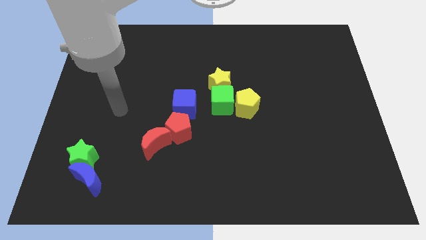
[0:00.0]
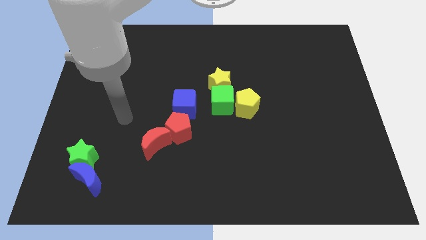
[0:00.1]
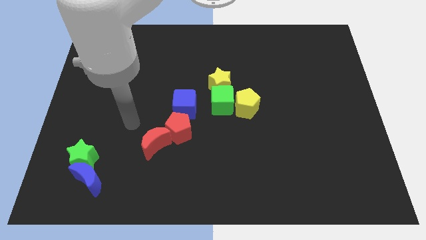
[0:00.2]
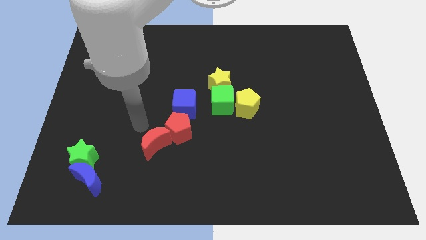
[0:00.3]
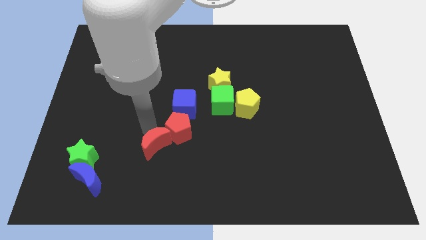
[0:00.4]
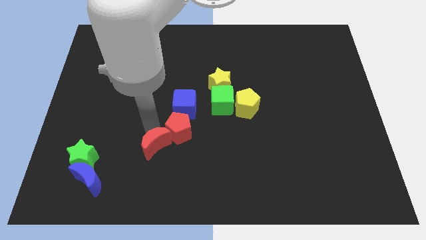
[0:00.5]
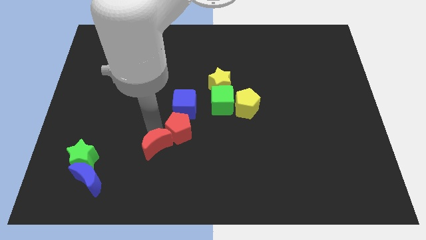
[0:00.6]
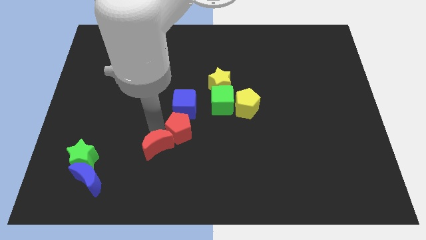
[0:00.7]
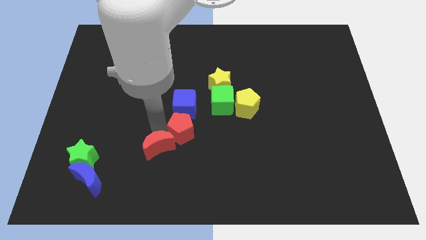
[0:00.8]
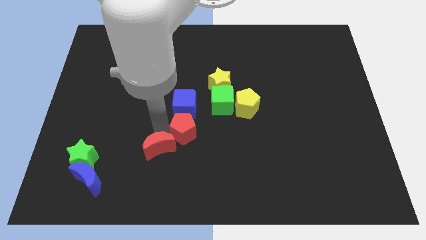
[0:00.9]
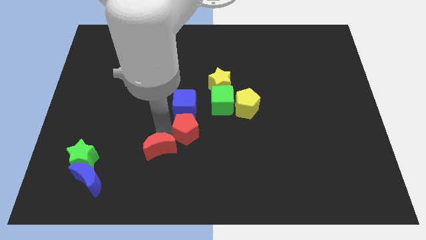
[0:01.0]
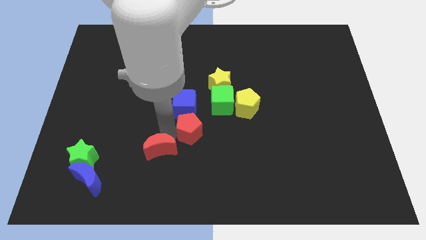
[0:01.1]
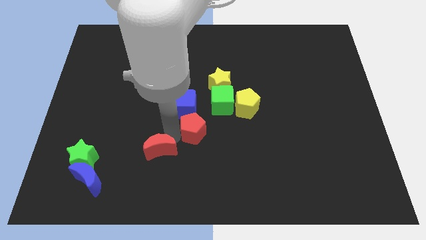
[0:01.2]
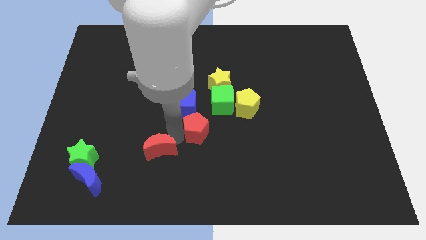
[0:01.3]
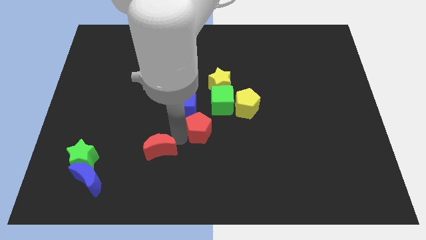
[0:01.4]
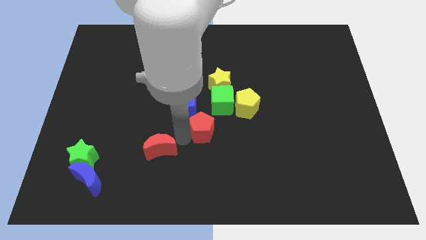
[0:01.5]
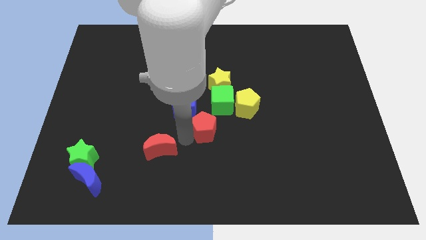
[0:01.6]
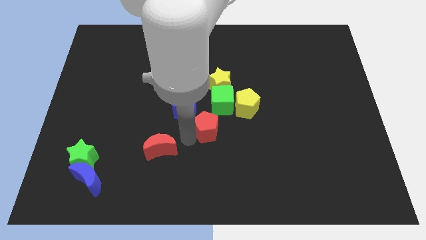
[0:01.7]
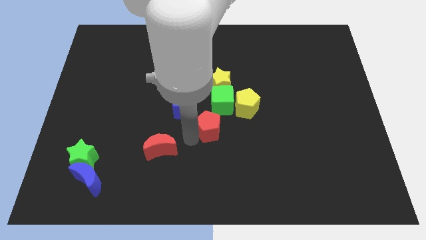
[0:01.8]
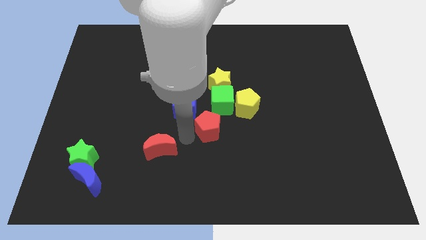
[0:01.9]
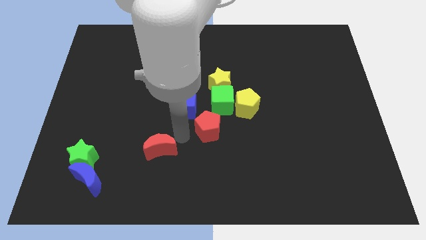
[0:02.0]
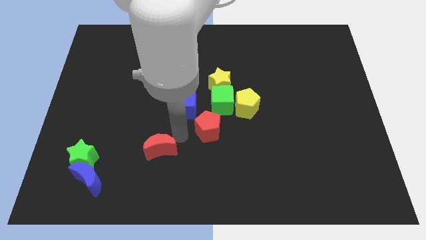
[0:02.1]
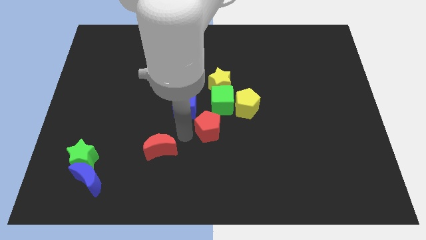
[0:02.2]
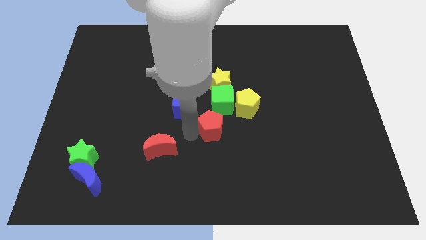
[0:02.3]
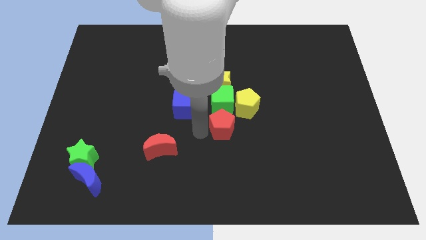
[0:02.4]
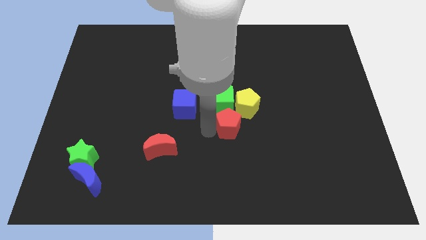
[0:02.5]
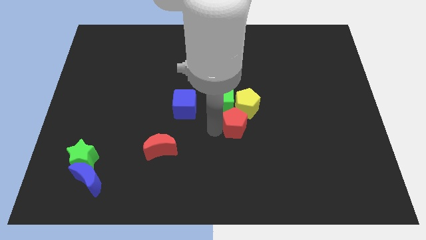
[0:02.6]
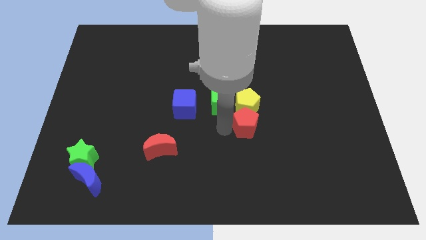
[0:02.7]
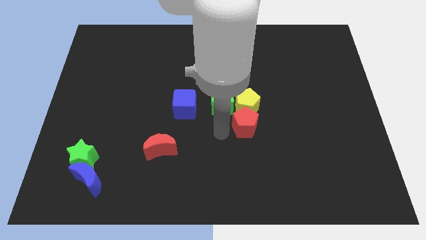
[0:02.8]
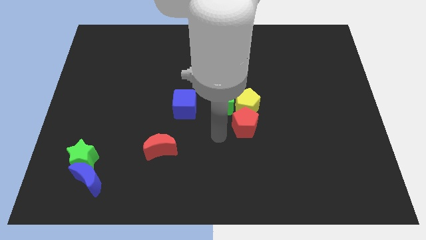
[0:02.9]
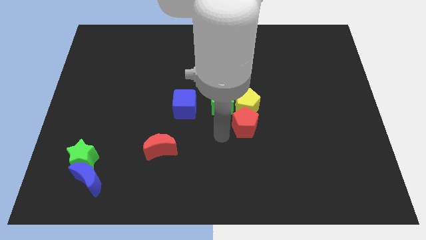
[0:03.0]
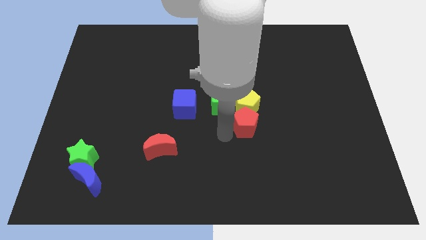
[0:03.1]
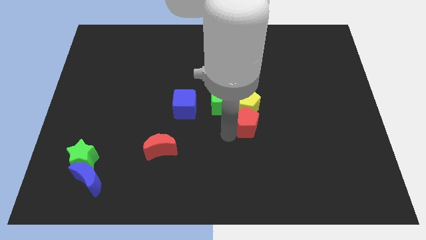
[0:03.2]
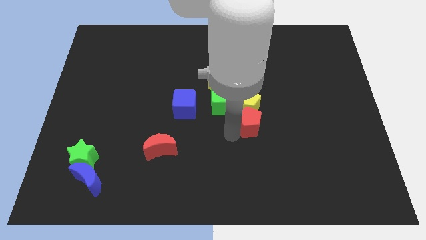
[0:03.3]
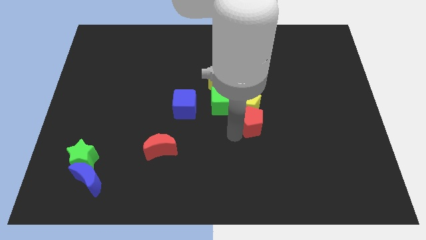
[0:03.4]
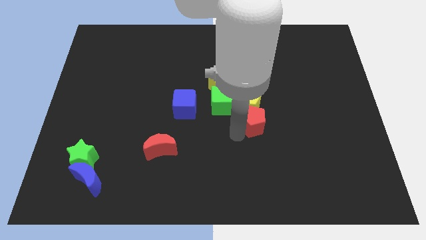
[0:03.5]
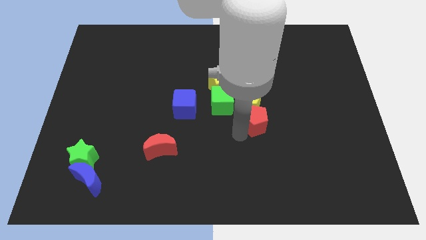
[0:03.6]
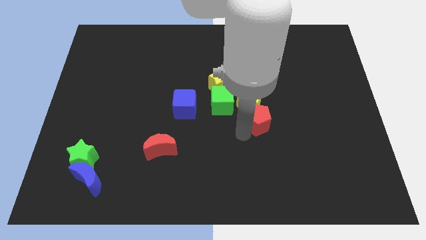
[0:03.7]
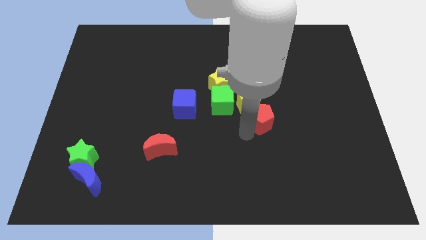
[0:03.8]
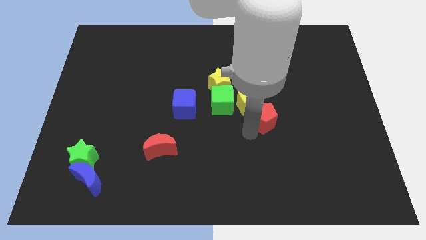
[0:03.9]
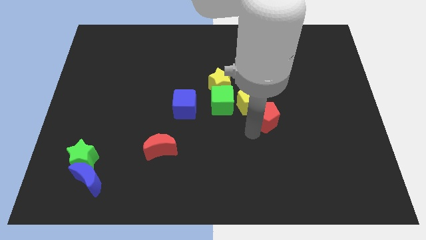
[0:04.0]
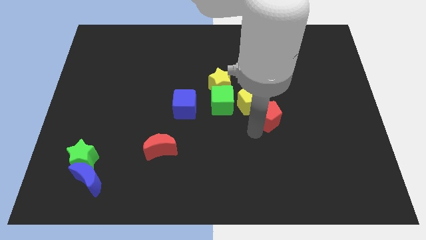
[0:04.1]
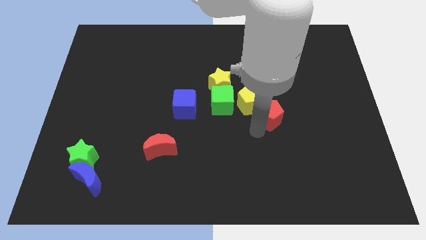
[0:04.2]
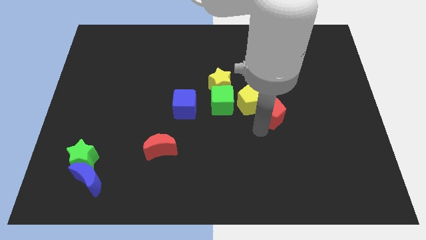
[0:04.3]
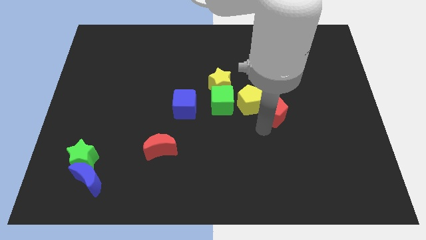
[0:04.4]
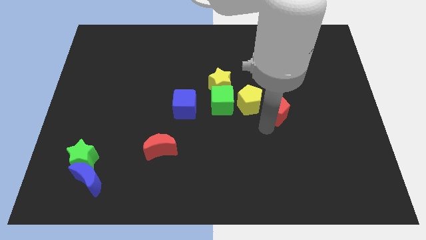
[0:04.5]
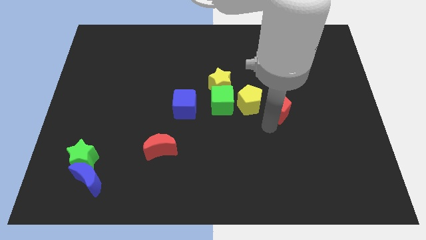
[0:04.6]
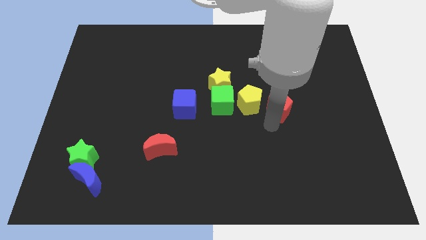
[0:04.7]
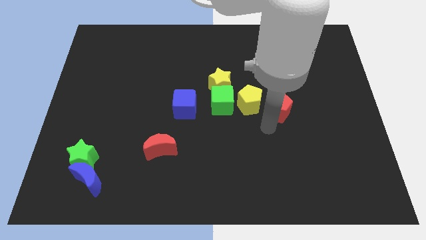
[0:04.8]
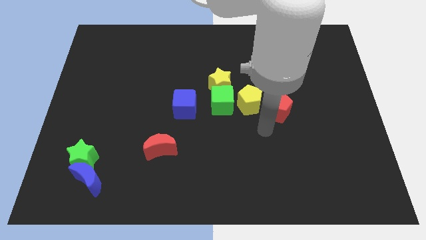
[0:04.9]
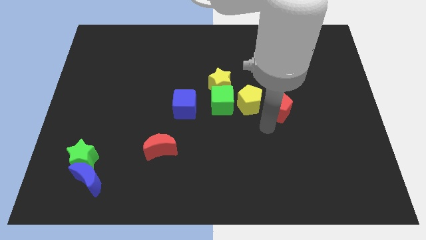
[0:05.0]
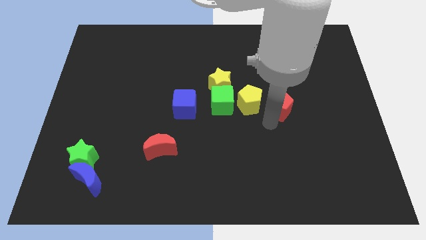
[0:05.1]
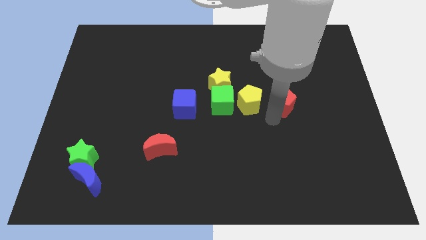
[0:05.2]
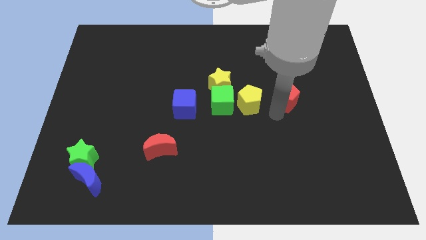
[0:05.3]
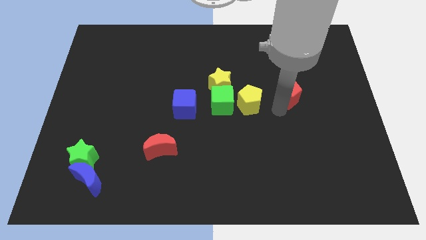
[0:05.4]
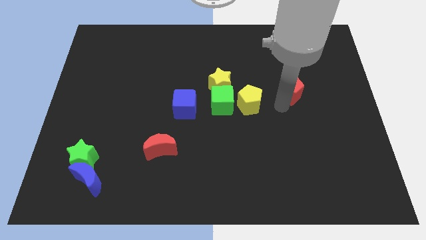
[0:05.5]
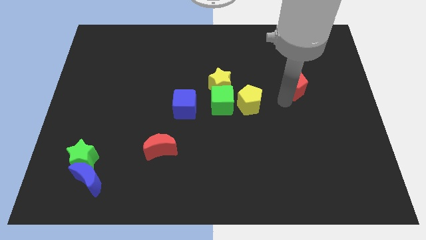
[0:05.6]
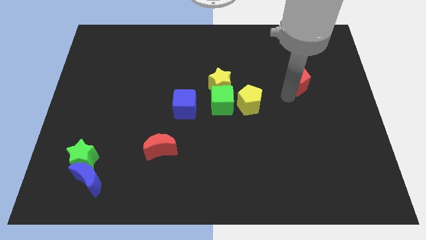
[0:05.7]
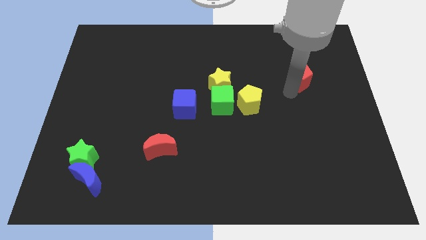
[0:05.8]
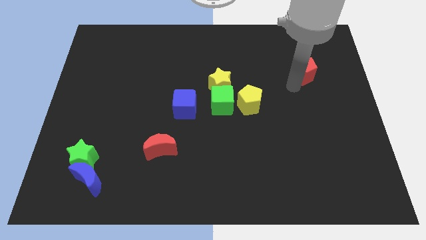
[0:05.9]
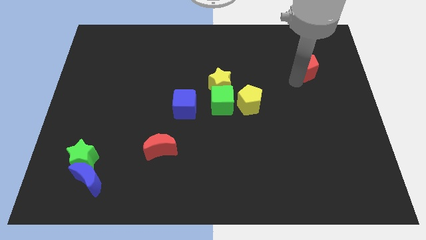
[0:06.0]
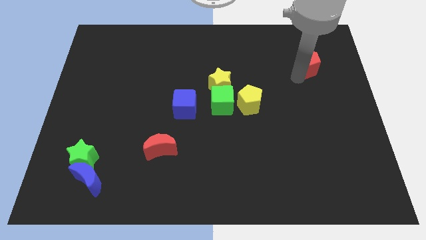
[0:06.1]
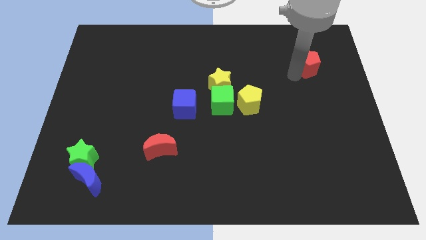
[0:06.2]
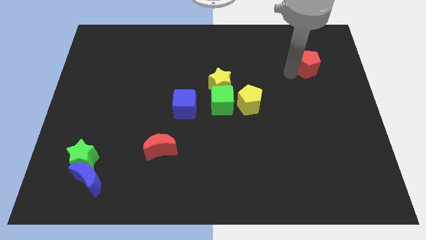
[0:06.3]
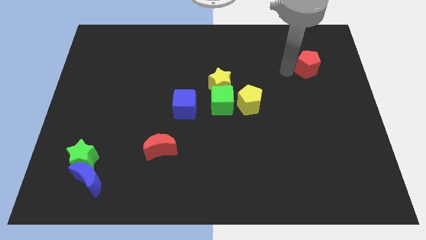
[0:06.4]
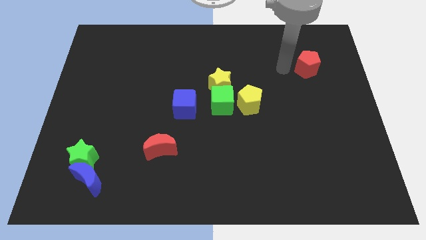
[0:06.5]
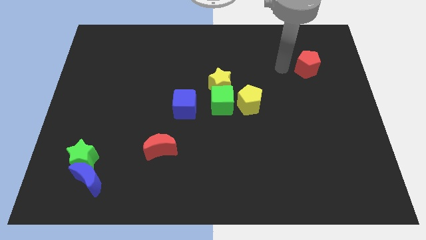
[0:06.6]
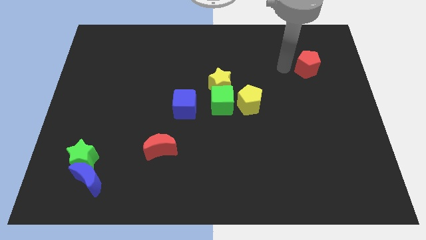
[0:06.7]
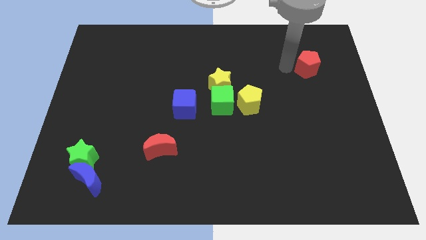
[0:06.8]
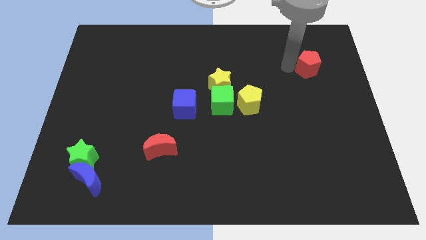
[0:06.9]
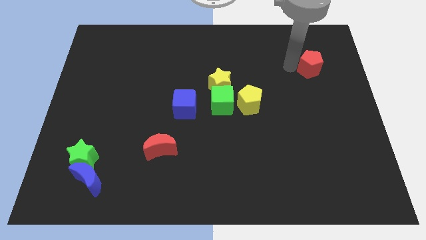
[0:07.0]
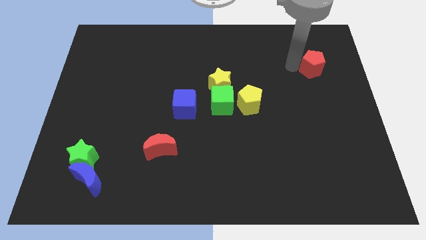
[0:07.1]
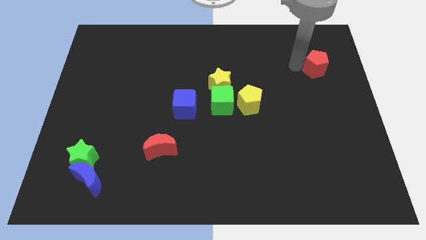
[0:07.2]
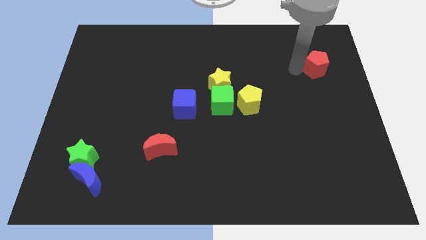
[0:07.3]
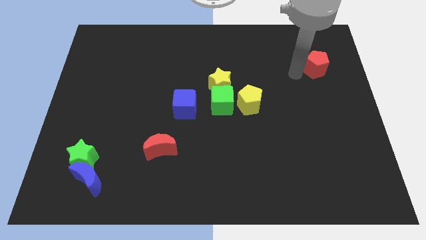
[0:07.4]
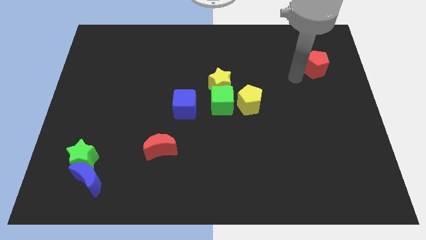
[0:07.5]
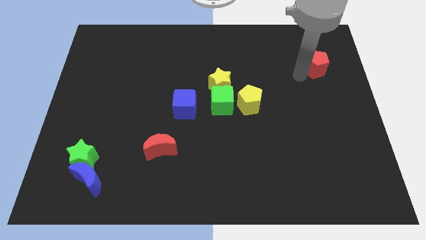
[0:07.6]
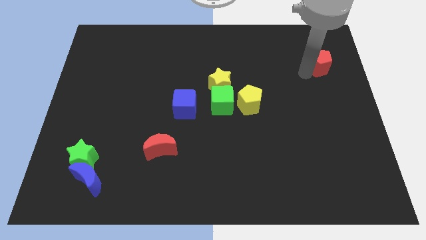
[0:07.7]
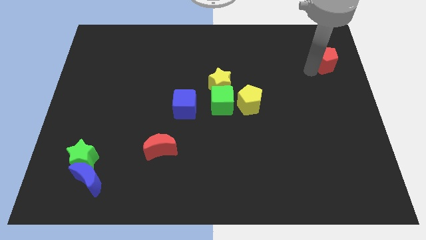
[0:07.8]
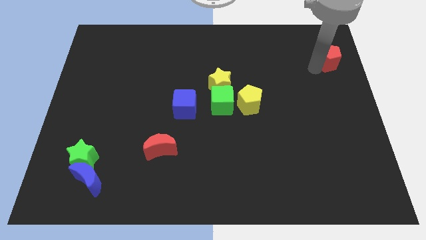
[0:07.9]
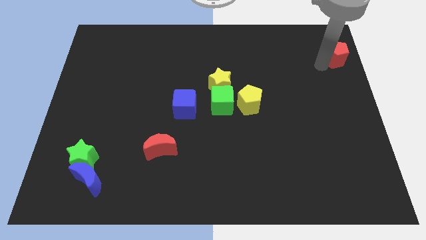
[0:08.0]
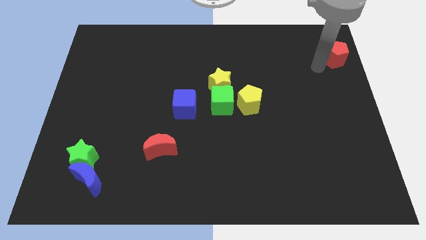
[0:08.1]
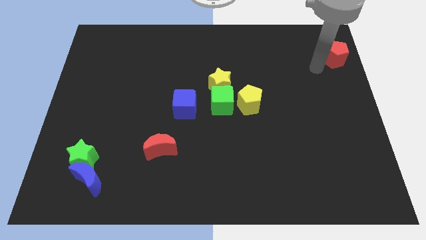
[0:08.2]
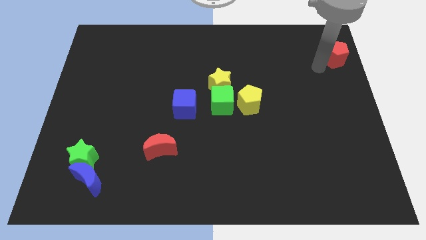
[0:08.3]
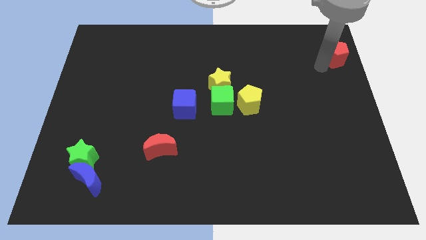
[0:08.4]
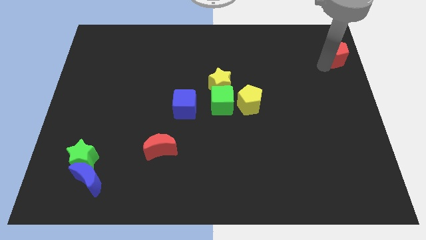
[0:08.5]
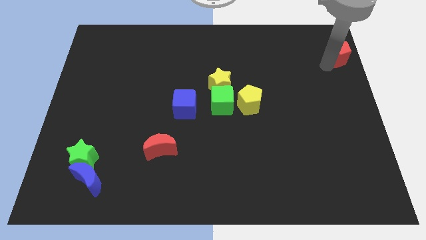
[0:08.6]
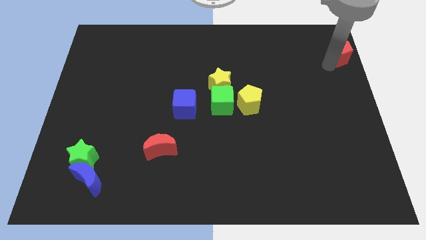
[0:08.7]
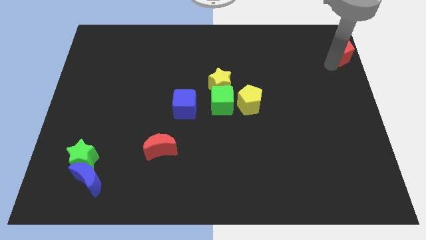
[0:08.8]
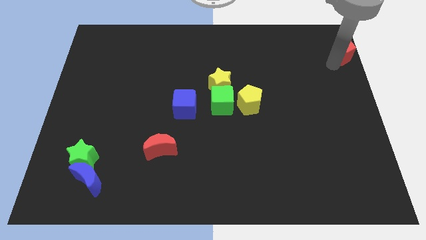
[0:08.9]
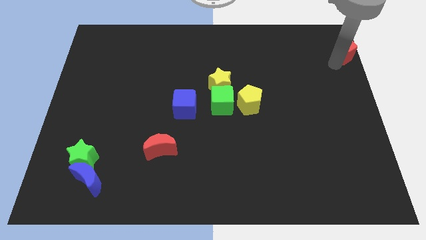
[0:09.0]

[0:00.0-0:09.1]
push the red pentagon to the upper right corner
